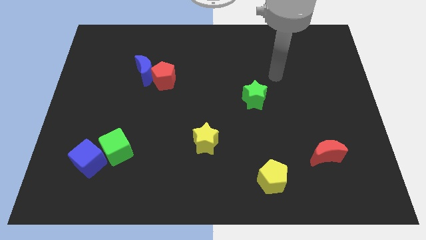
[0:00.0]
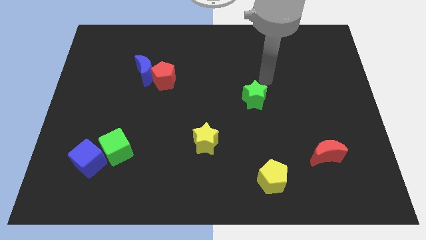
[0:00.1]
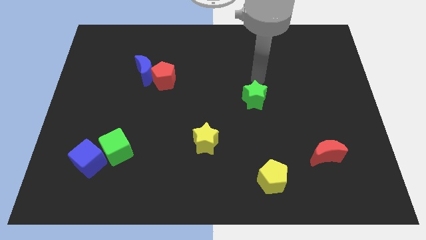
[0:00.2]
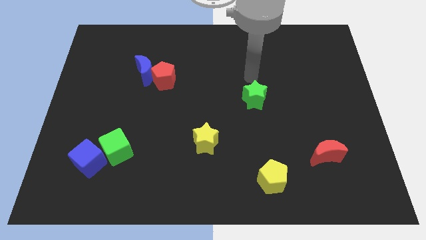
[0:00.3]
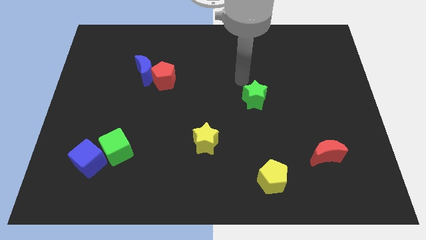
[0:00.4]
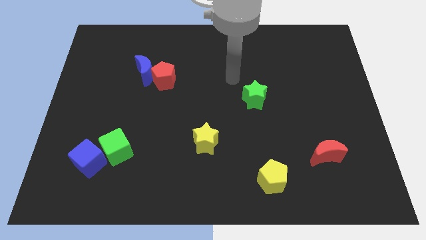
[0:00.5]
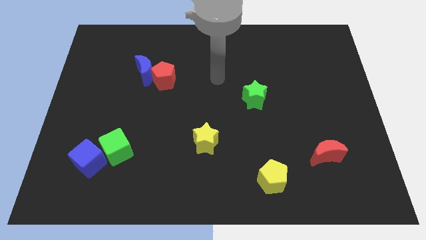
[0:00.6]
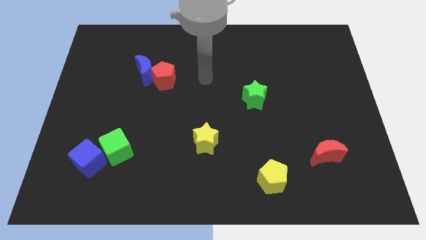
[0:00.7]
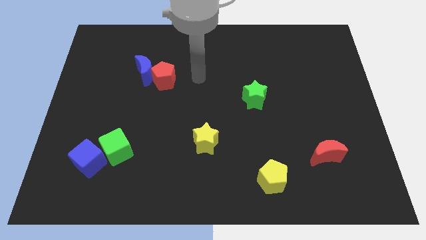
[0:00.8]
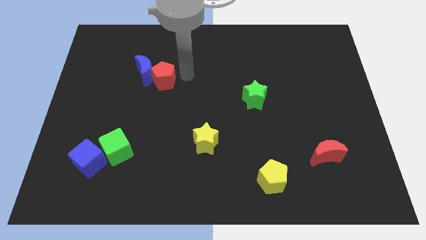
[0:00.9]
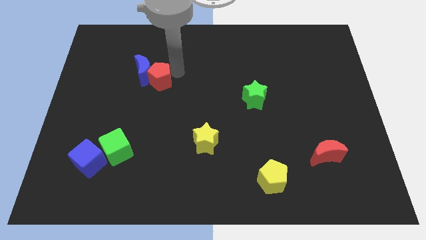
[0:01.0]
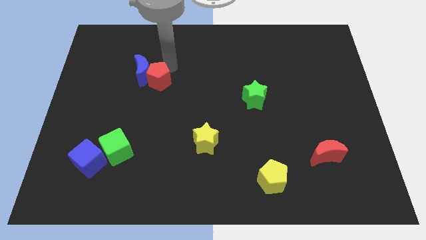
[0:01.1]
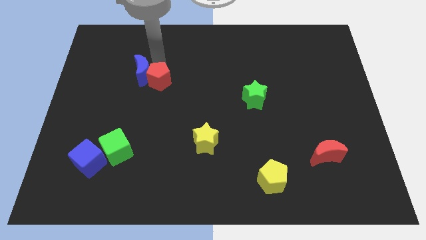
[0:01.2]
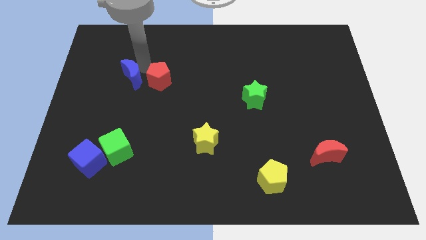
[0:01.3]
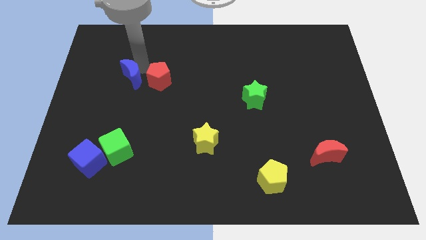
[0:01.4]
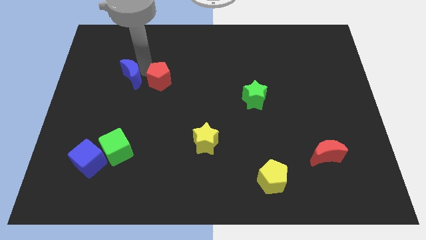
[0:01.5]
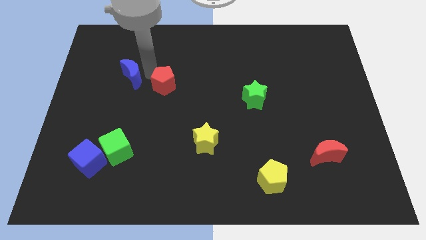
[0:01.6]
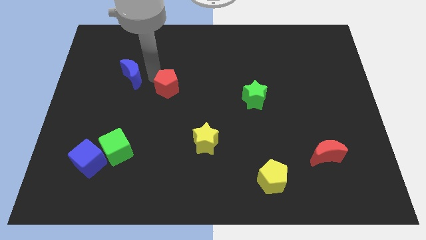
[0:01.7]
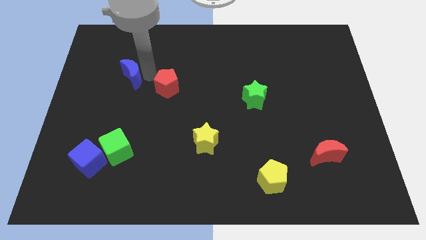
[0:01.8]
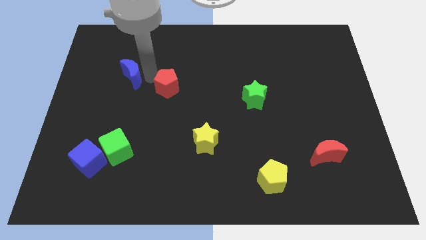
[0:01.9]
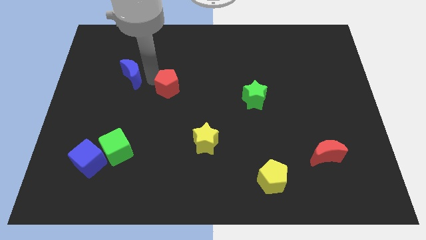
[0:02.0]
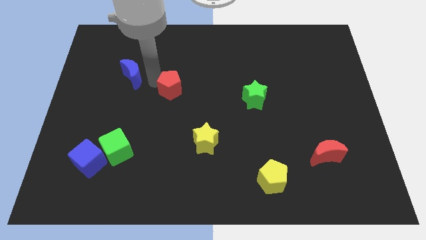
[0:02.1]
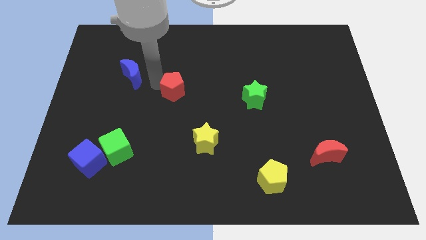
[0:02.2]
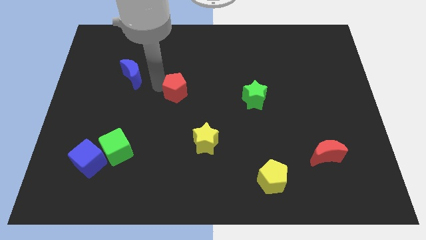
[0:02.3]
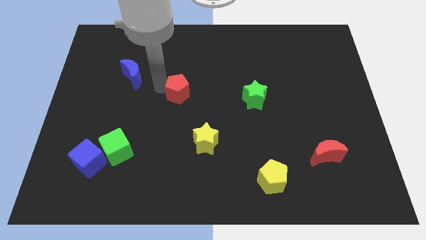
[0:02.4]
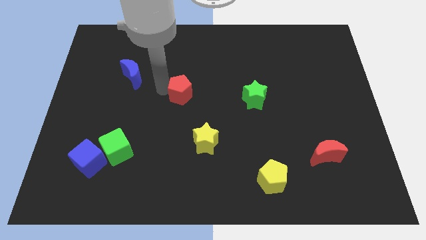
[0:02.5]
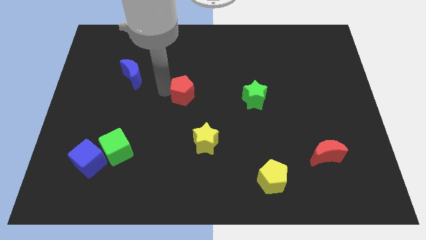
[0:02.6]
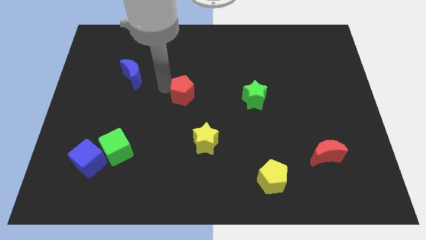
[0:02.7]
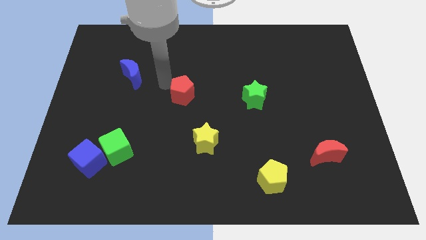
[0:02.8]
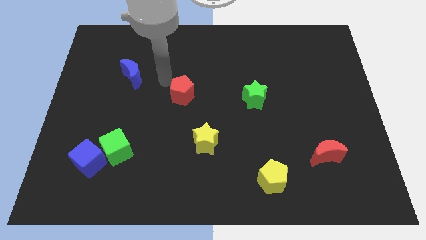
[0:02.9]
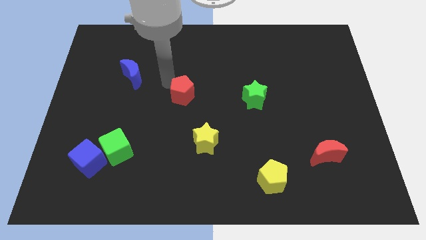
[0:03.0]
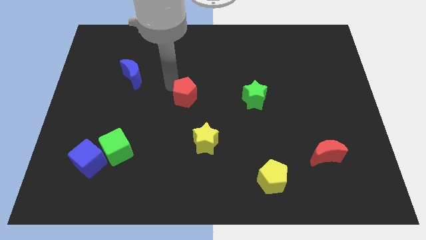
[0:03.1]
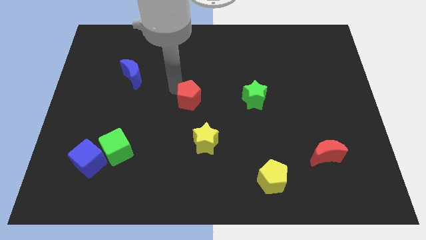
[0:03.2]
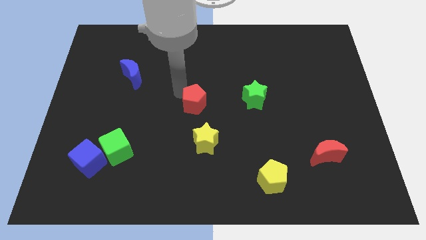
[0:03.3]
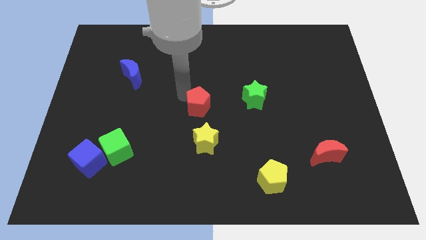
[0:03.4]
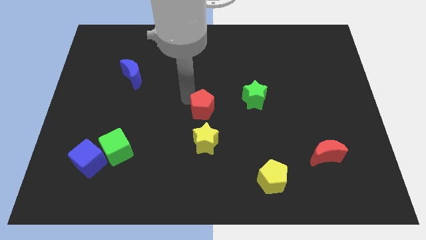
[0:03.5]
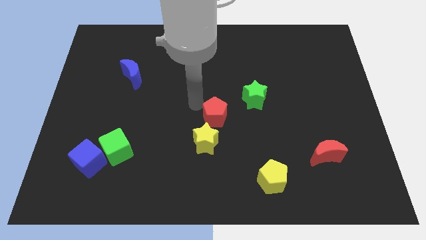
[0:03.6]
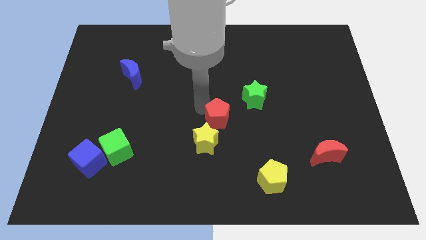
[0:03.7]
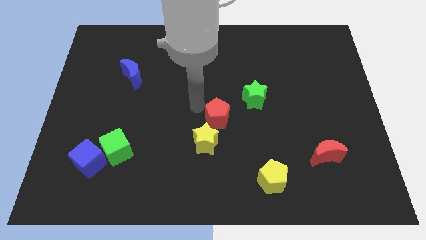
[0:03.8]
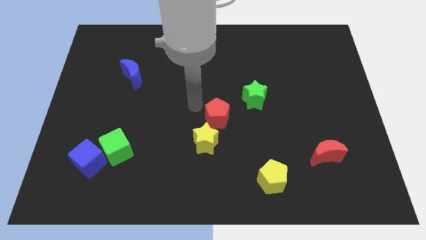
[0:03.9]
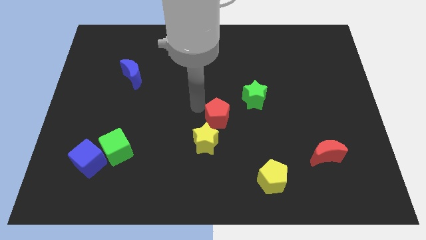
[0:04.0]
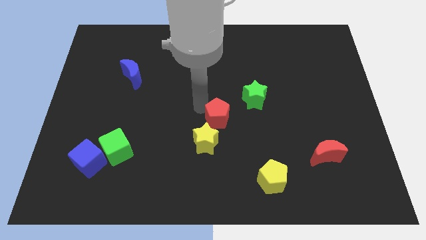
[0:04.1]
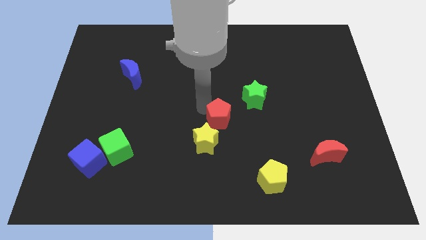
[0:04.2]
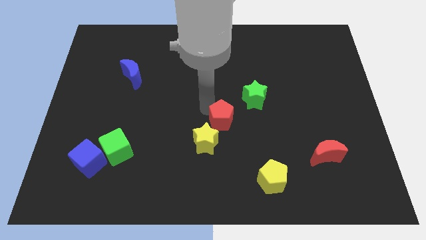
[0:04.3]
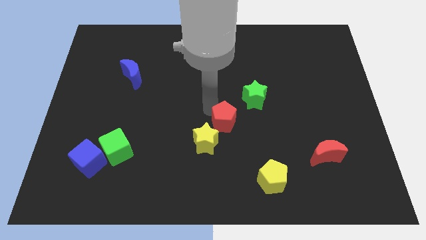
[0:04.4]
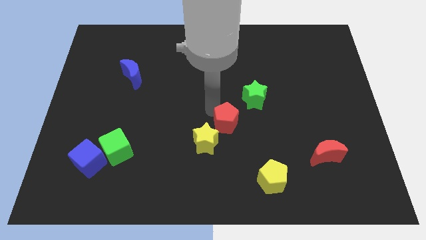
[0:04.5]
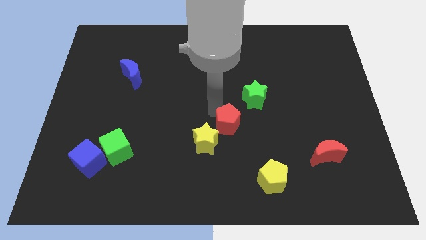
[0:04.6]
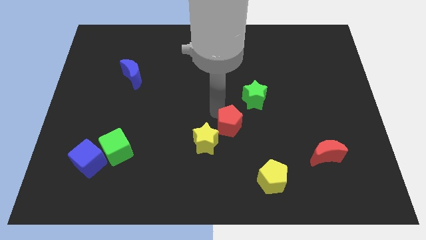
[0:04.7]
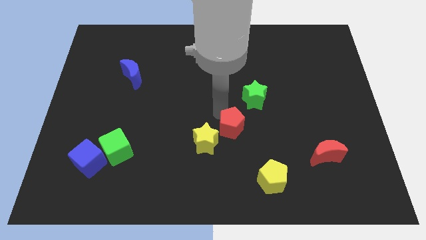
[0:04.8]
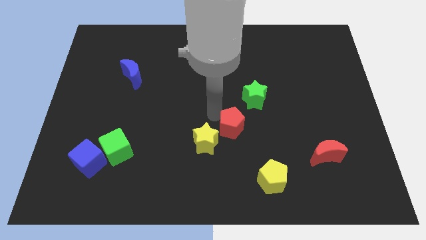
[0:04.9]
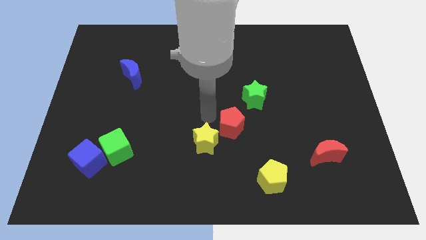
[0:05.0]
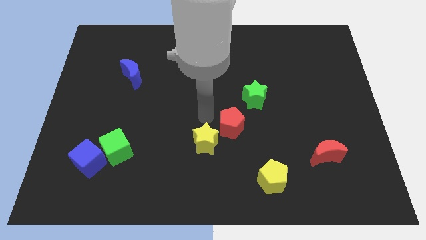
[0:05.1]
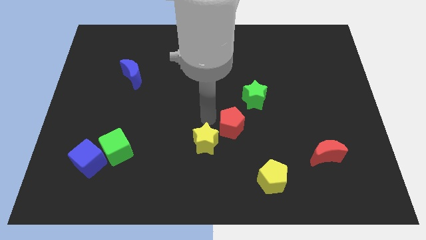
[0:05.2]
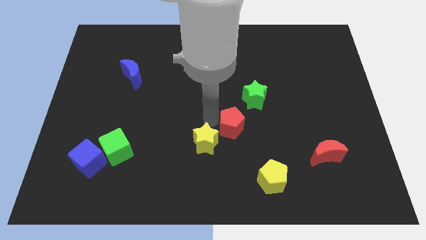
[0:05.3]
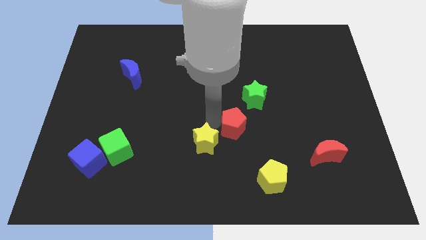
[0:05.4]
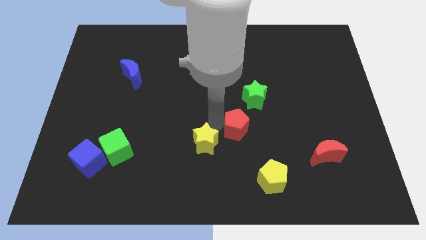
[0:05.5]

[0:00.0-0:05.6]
slide the red pentagon below the green star
